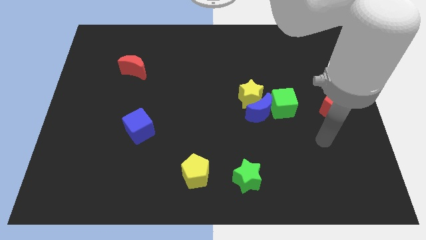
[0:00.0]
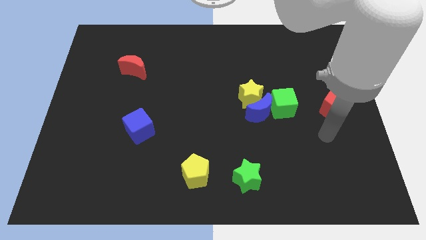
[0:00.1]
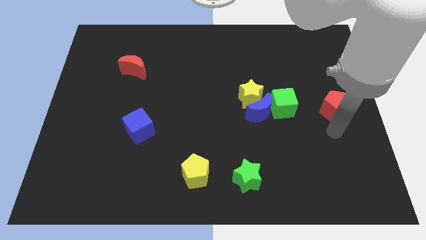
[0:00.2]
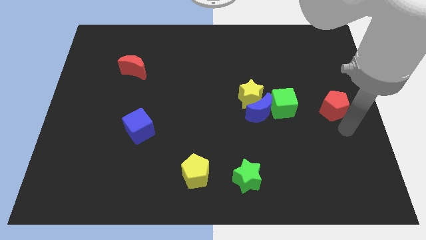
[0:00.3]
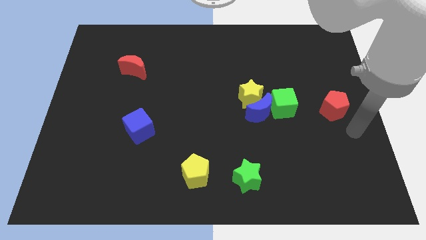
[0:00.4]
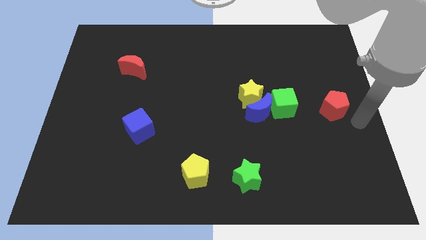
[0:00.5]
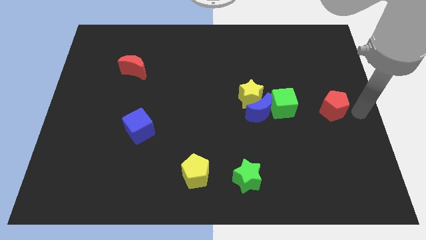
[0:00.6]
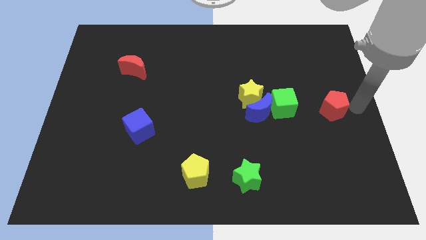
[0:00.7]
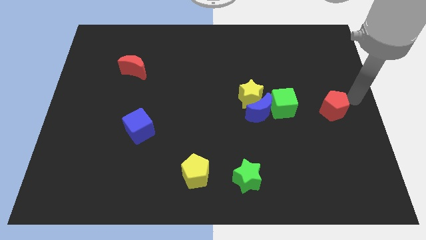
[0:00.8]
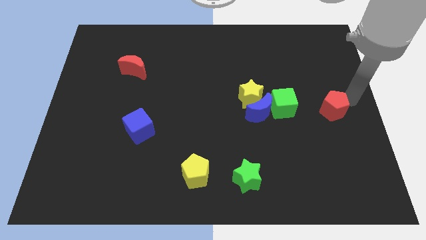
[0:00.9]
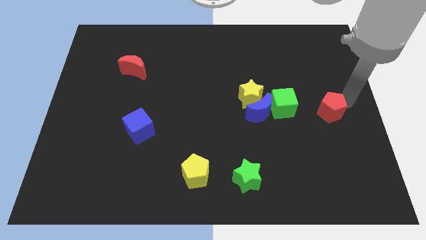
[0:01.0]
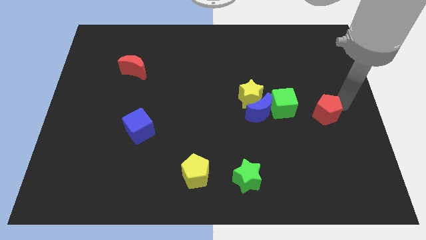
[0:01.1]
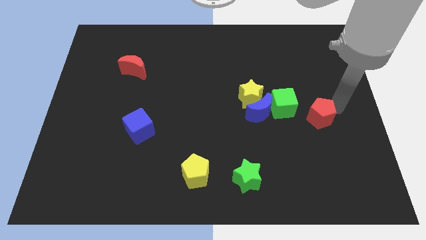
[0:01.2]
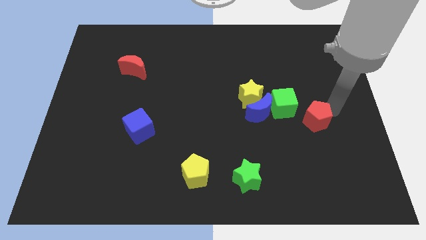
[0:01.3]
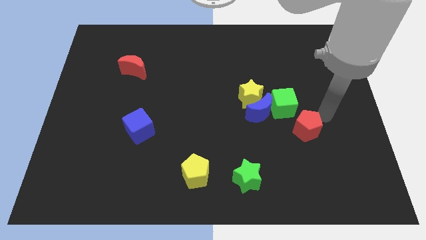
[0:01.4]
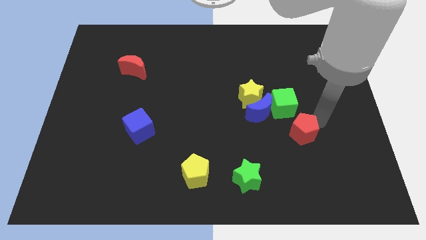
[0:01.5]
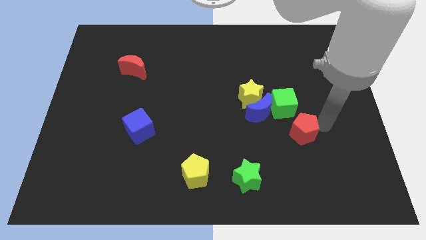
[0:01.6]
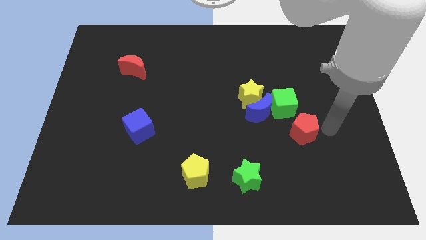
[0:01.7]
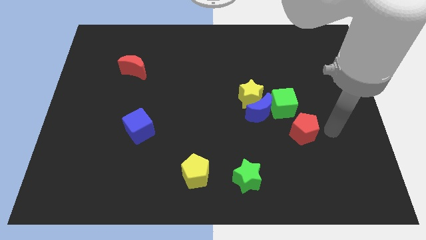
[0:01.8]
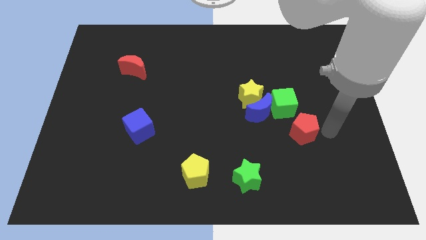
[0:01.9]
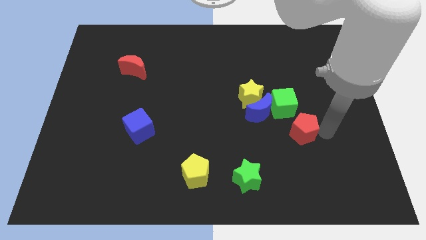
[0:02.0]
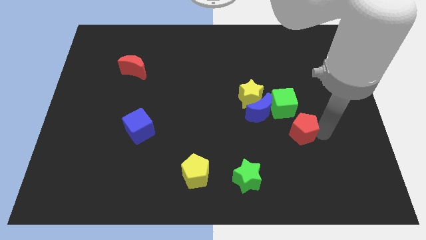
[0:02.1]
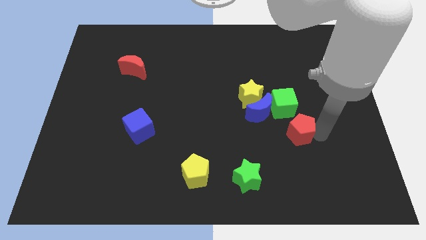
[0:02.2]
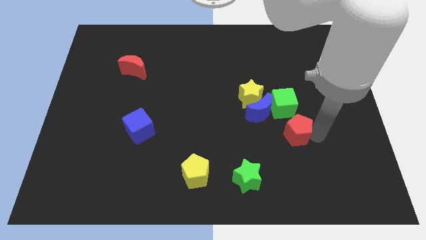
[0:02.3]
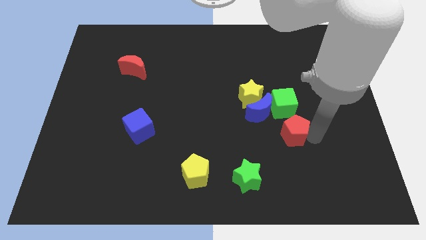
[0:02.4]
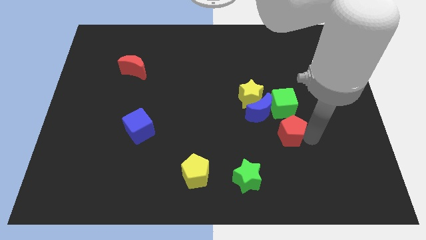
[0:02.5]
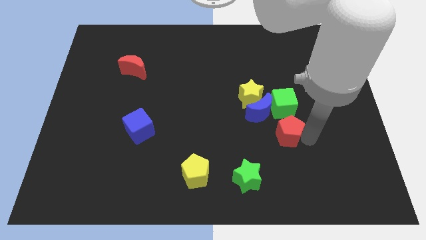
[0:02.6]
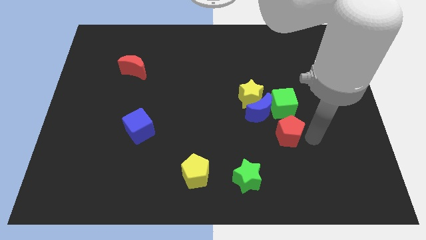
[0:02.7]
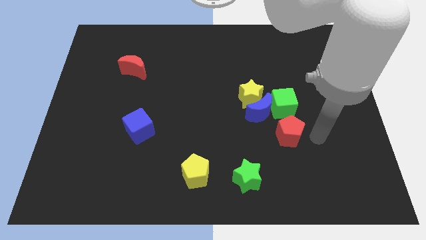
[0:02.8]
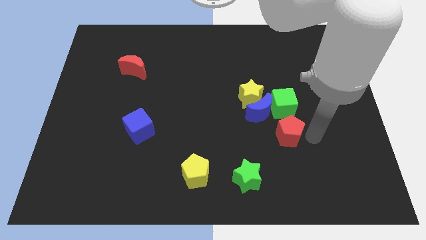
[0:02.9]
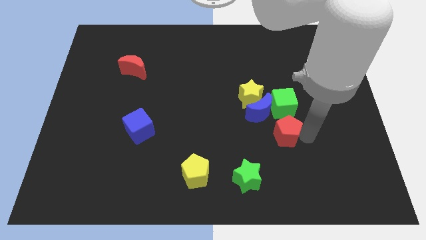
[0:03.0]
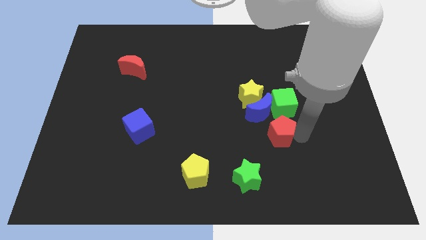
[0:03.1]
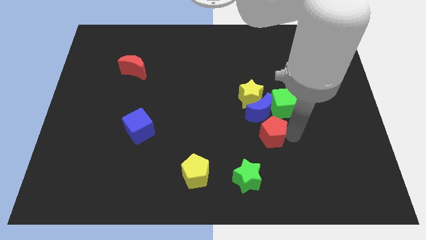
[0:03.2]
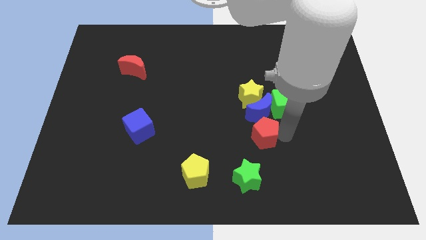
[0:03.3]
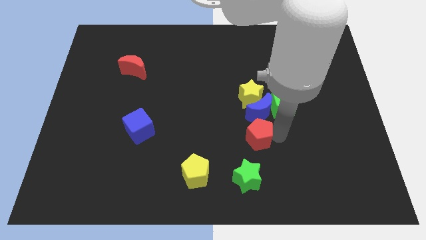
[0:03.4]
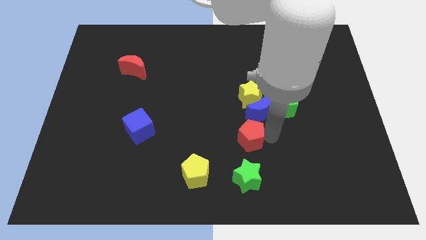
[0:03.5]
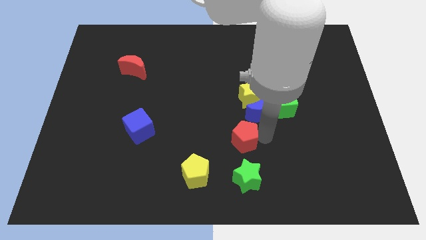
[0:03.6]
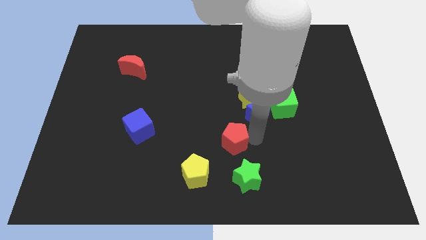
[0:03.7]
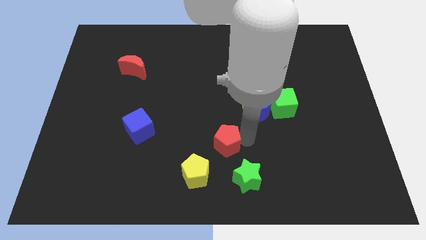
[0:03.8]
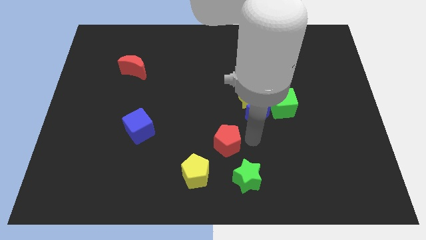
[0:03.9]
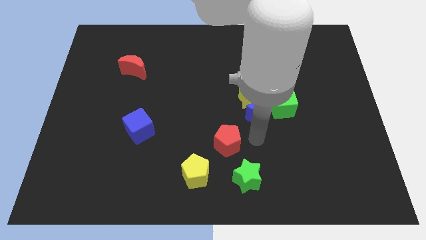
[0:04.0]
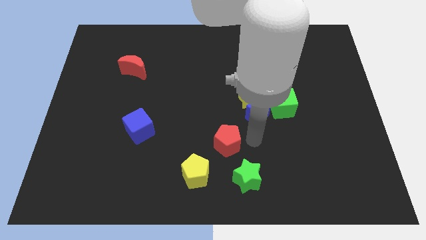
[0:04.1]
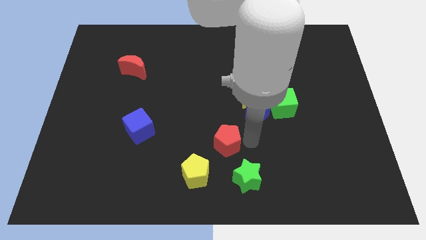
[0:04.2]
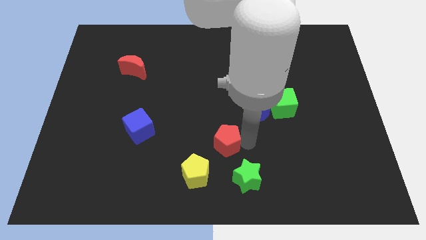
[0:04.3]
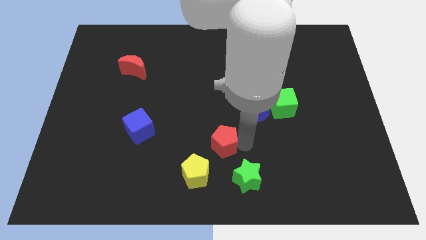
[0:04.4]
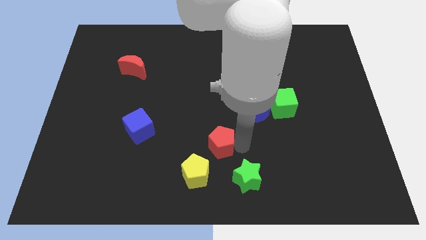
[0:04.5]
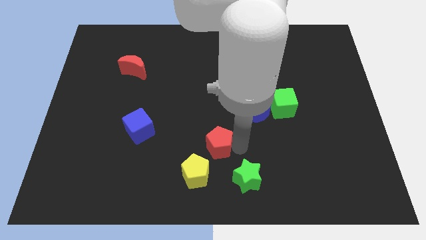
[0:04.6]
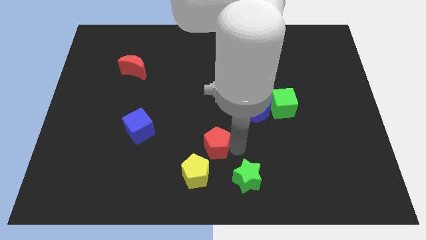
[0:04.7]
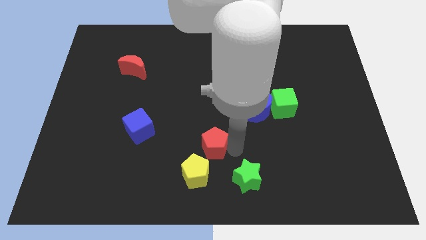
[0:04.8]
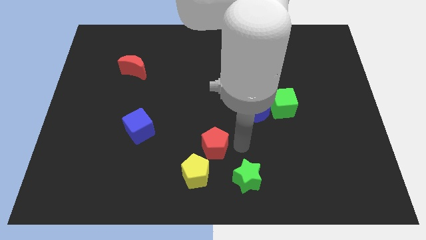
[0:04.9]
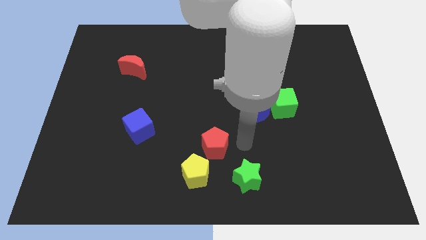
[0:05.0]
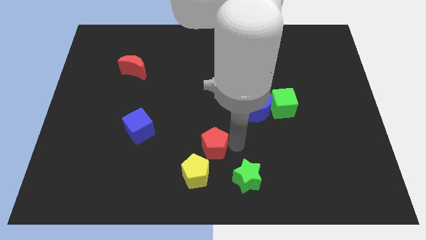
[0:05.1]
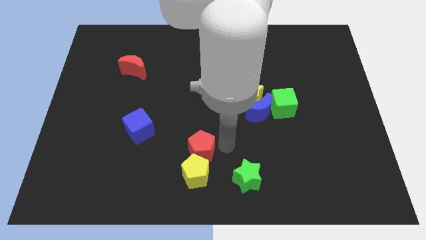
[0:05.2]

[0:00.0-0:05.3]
put the red pentagon to the top left of the yellow pentagon

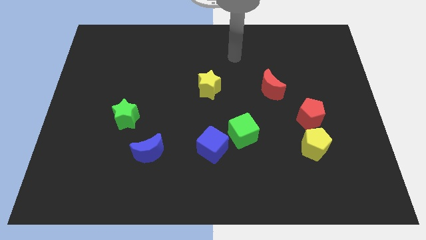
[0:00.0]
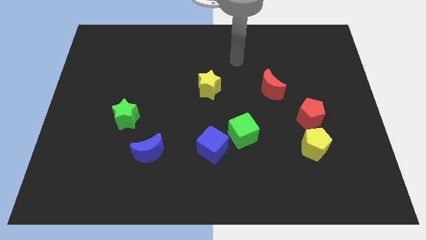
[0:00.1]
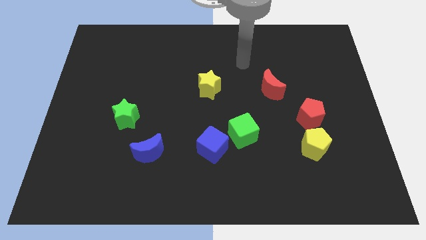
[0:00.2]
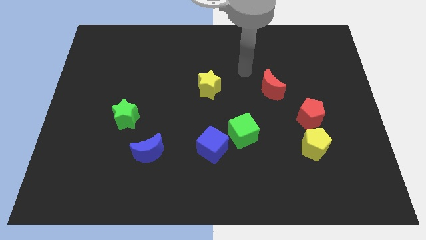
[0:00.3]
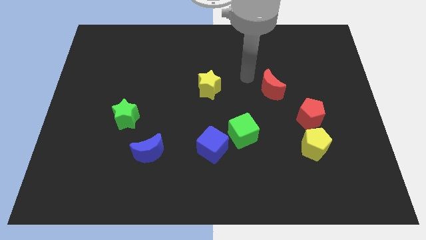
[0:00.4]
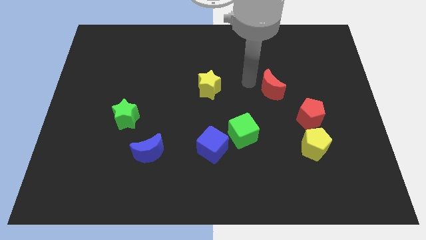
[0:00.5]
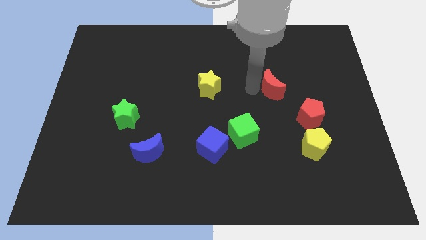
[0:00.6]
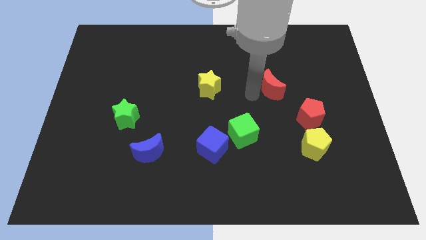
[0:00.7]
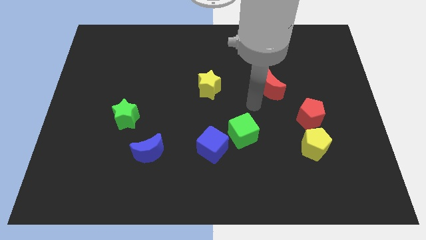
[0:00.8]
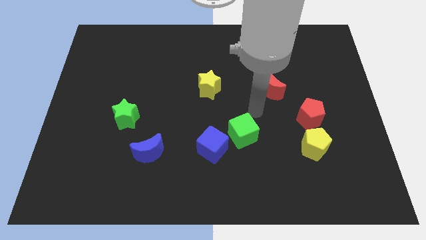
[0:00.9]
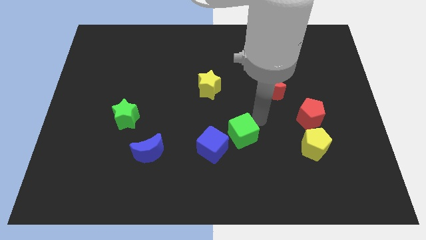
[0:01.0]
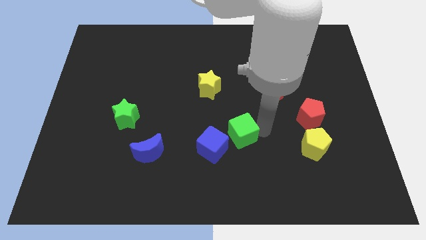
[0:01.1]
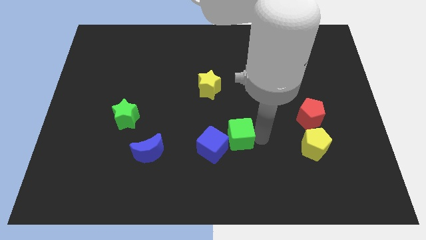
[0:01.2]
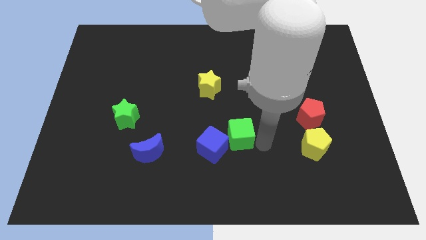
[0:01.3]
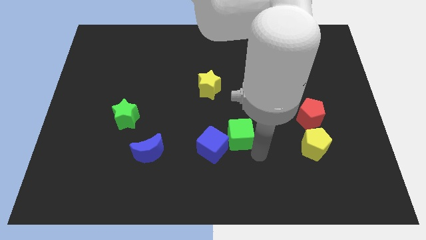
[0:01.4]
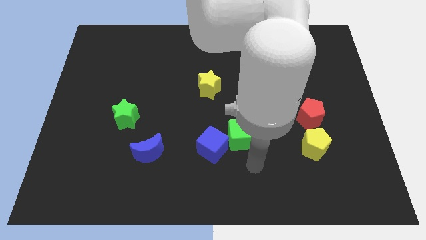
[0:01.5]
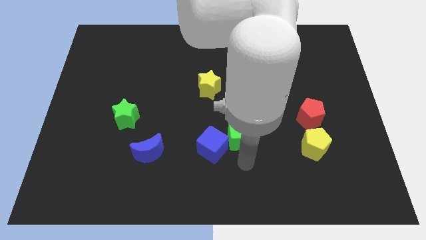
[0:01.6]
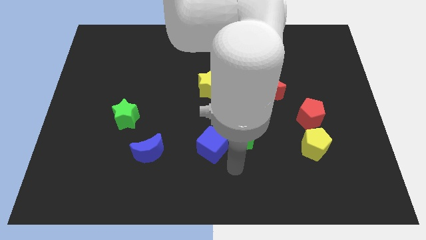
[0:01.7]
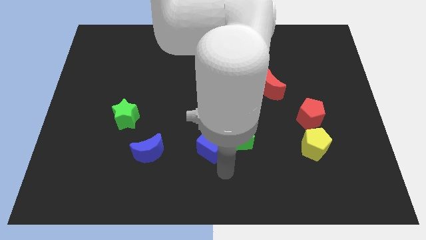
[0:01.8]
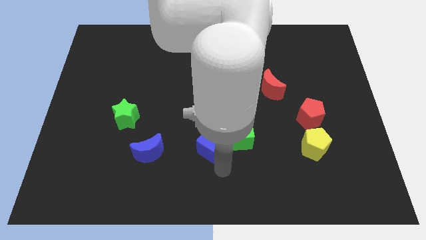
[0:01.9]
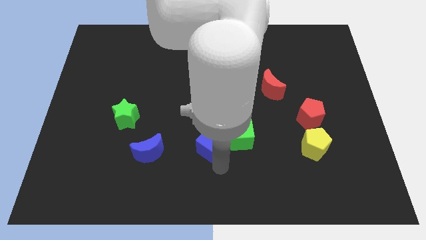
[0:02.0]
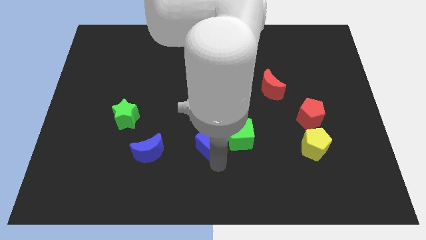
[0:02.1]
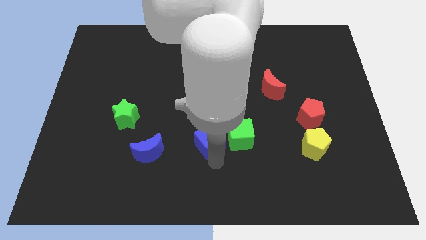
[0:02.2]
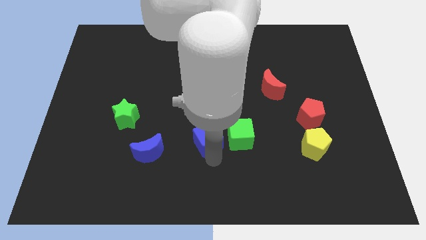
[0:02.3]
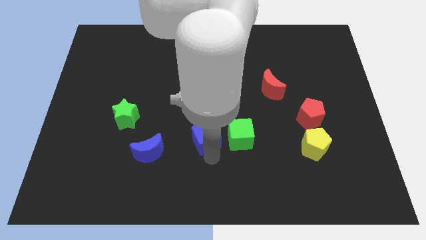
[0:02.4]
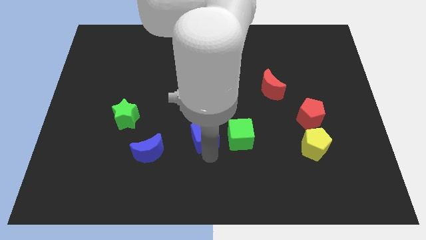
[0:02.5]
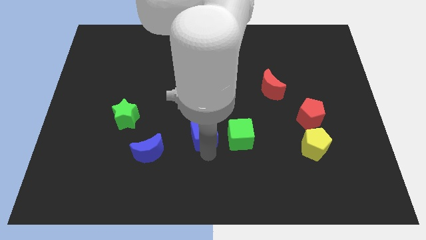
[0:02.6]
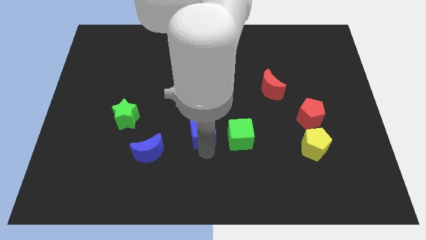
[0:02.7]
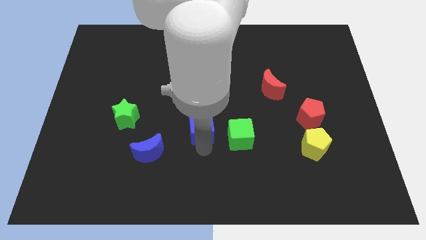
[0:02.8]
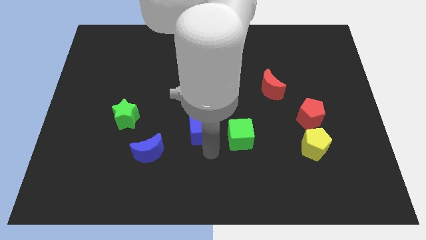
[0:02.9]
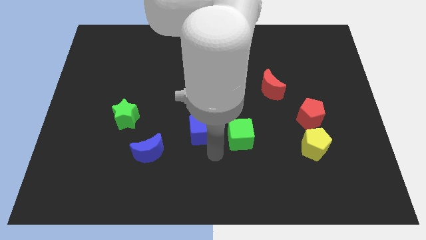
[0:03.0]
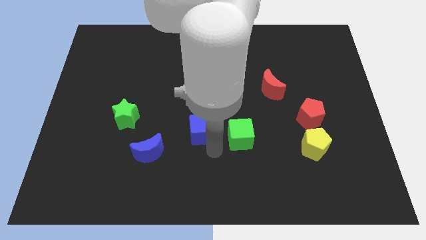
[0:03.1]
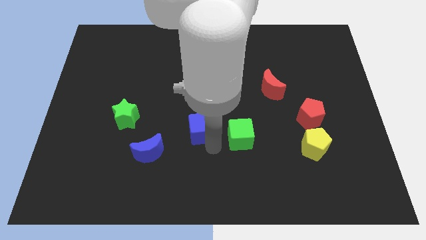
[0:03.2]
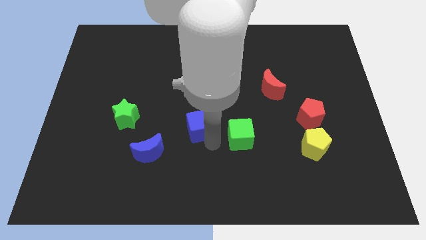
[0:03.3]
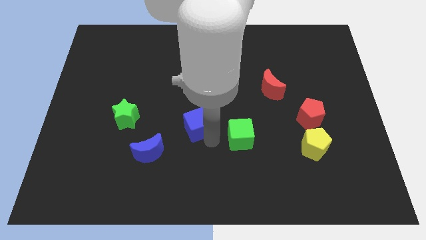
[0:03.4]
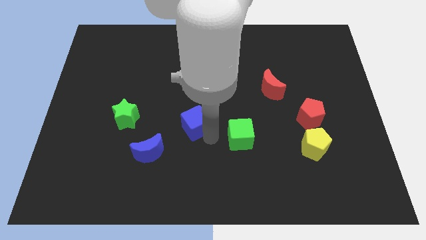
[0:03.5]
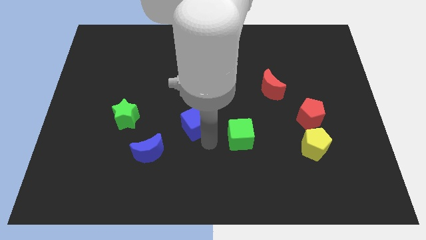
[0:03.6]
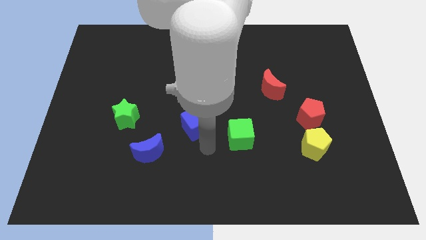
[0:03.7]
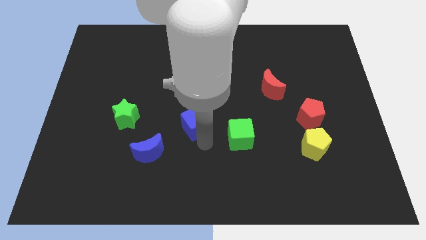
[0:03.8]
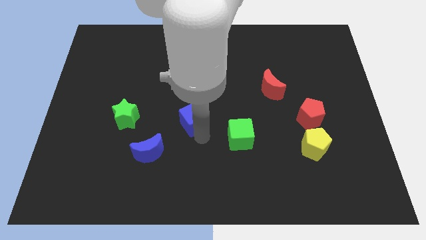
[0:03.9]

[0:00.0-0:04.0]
slide the blue cube to the bottom left side of the yellow star
